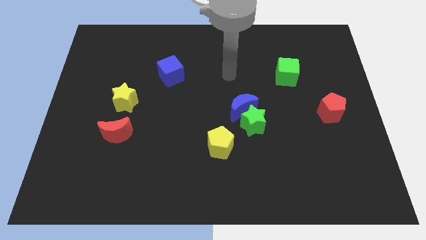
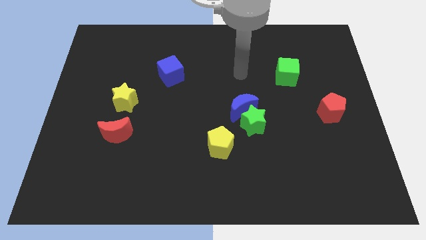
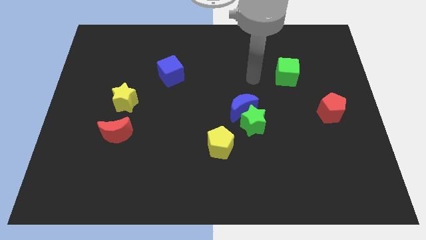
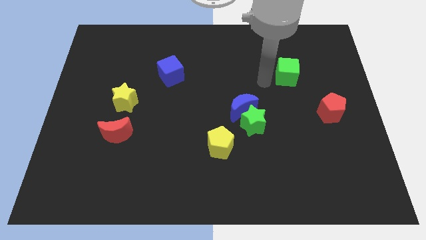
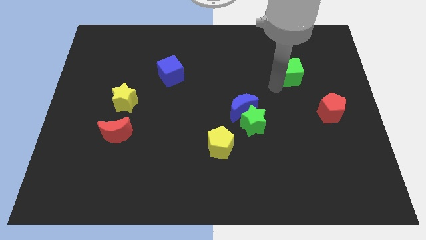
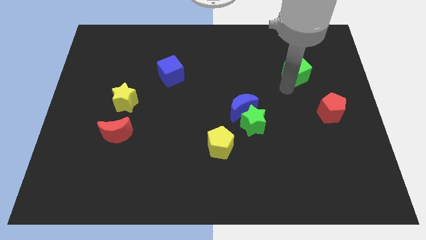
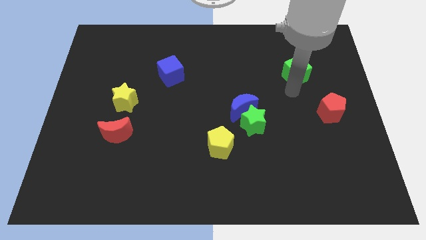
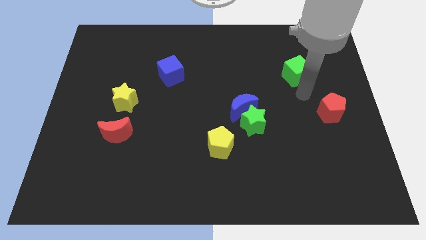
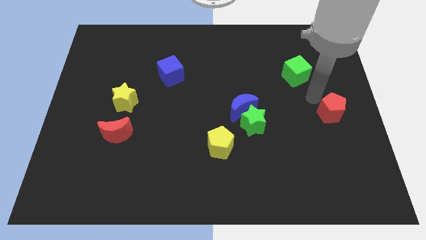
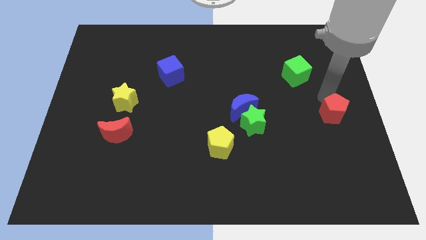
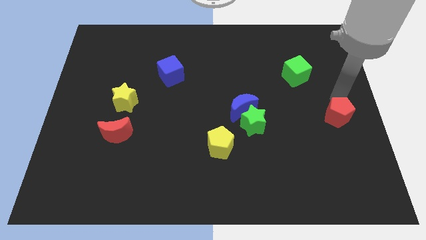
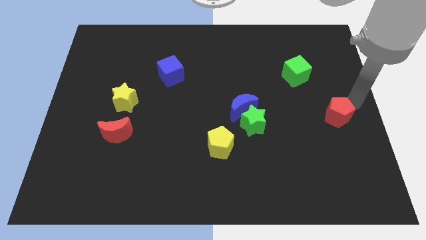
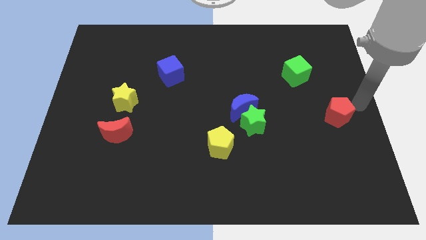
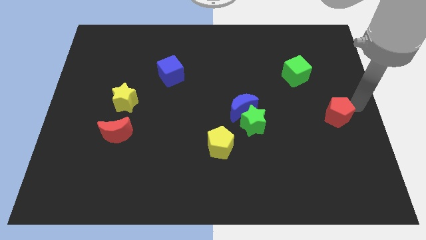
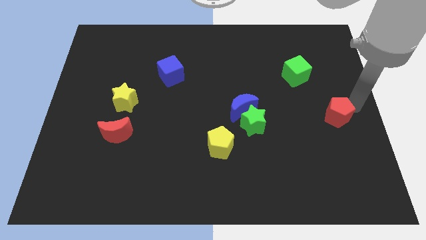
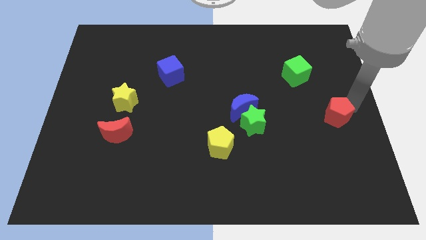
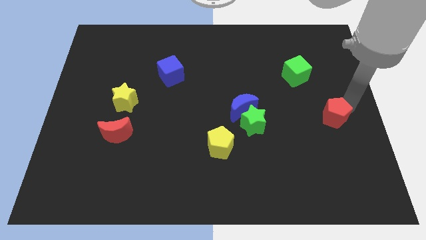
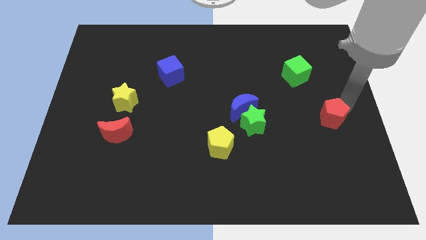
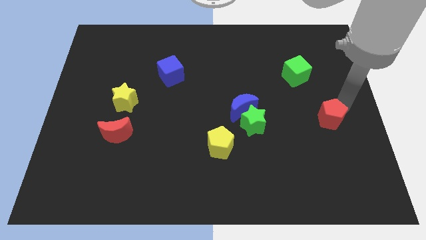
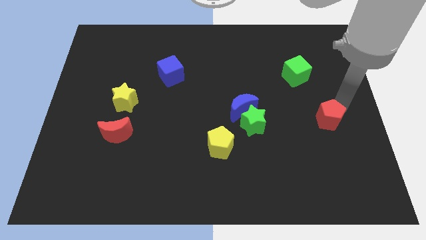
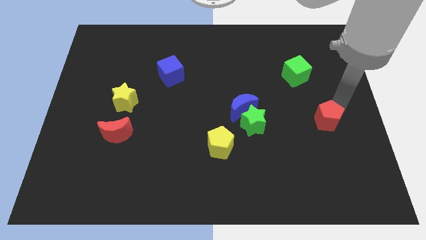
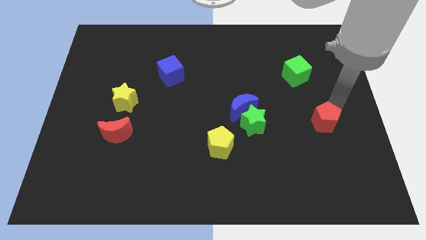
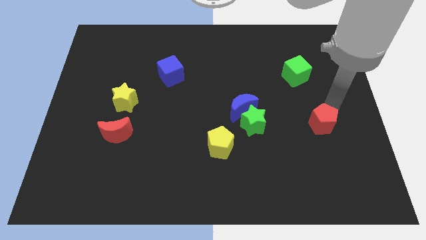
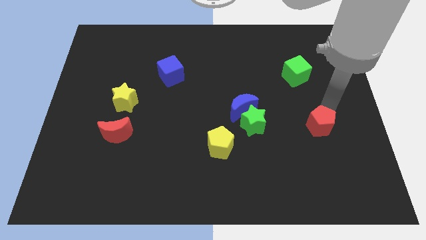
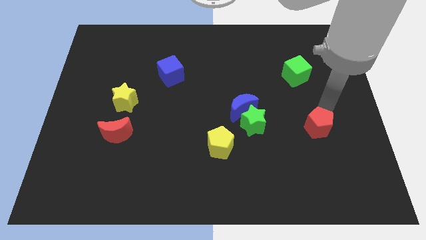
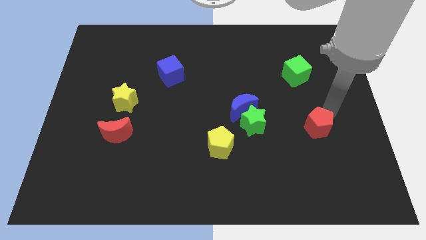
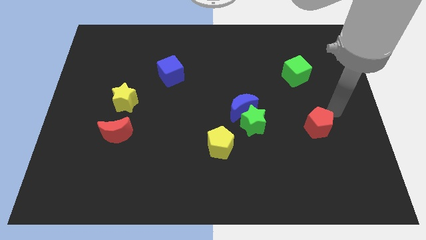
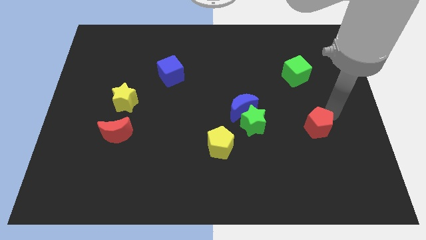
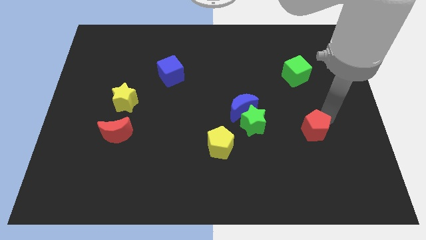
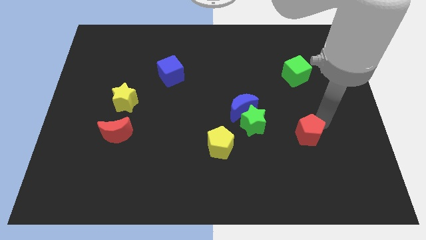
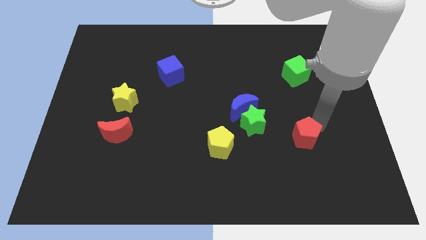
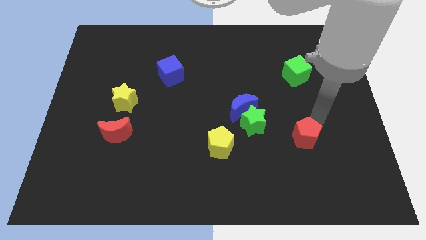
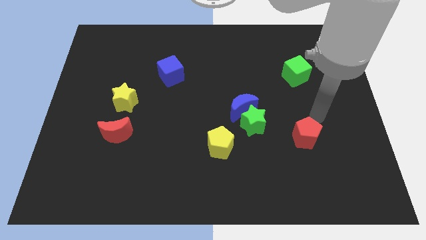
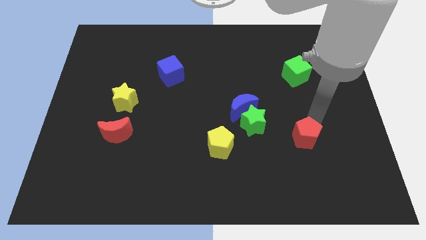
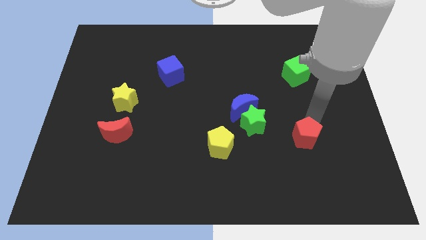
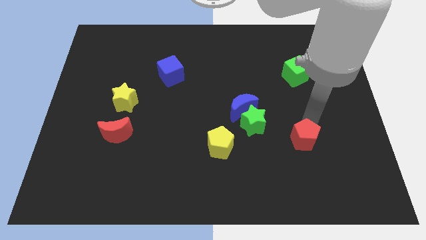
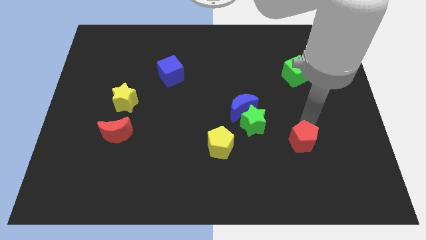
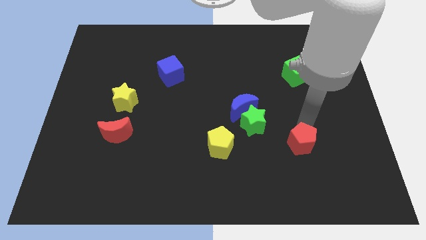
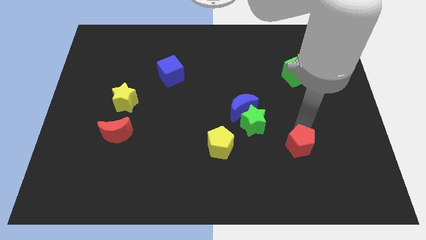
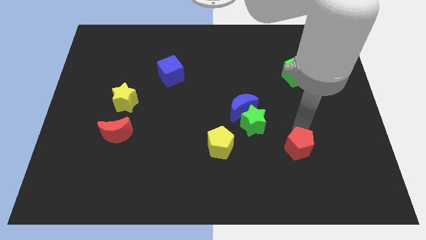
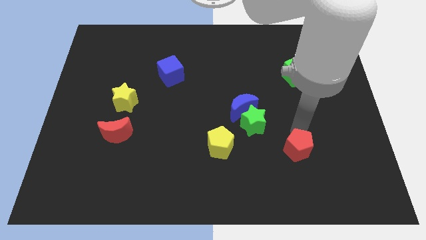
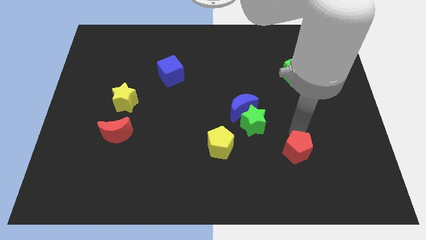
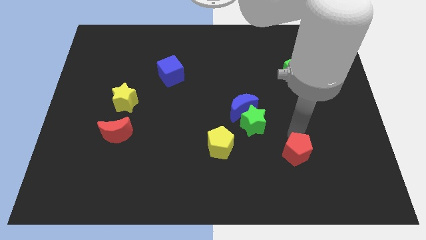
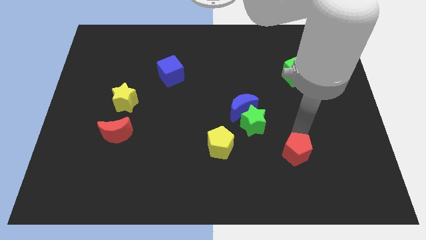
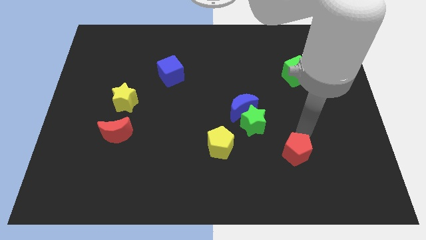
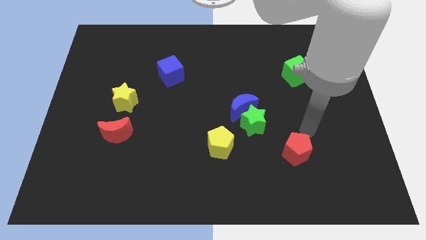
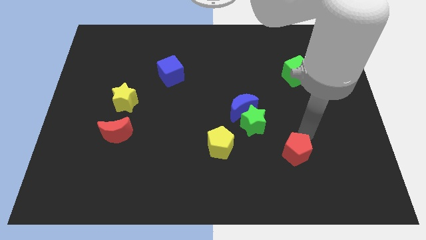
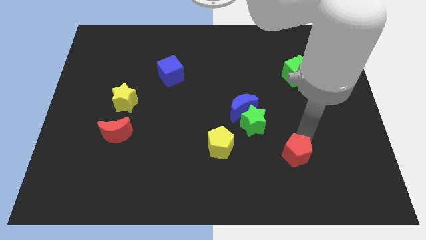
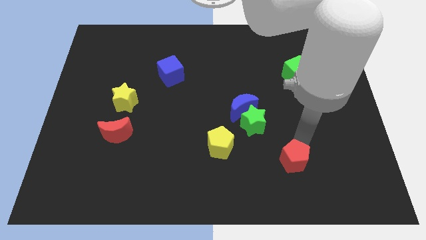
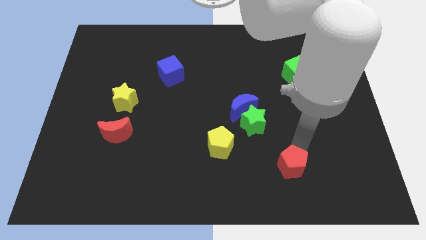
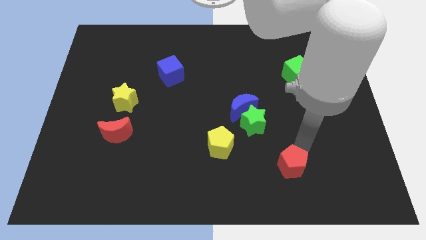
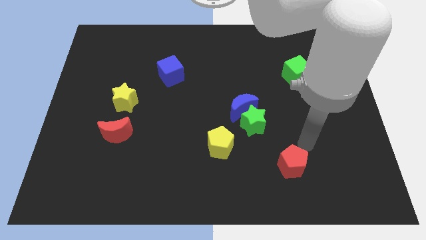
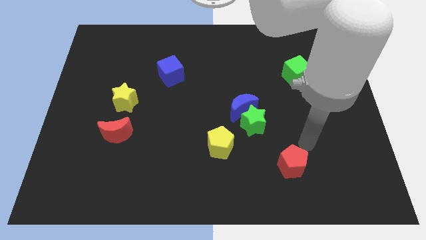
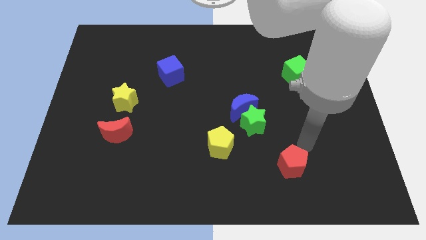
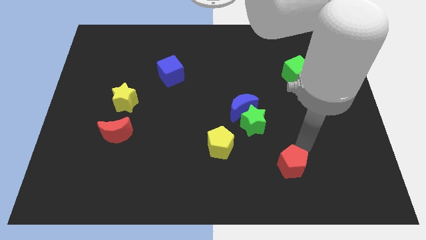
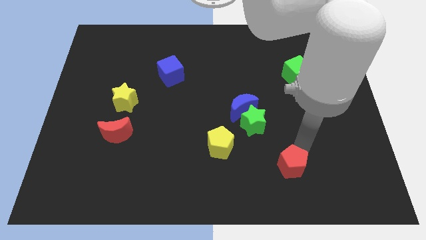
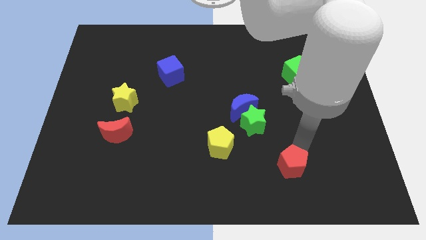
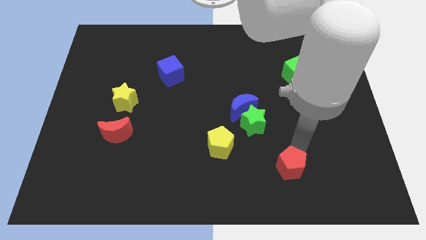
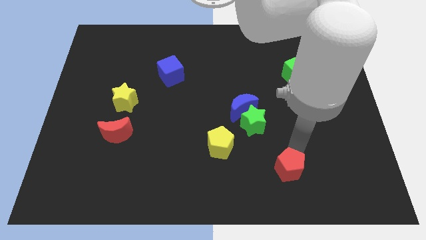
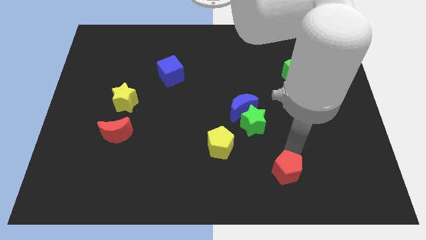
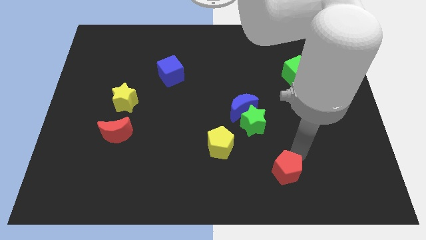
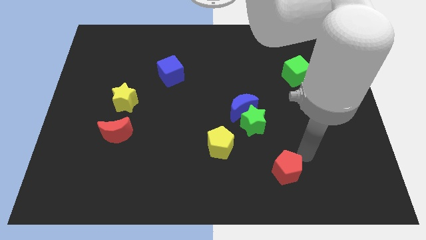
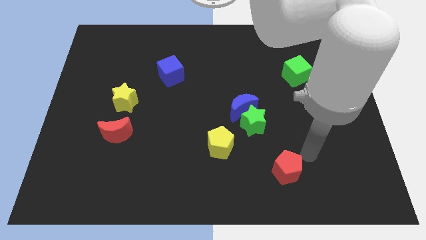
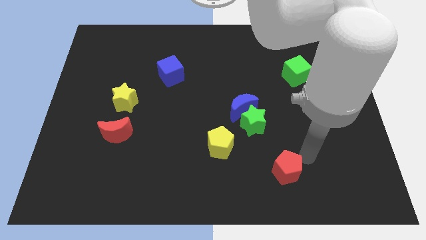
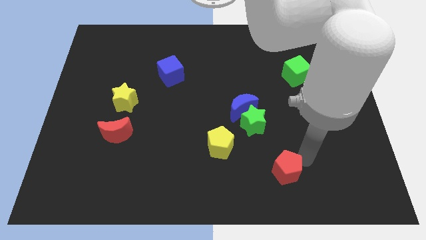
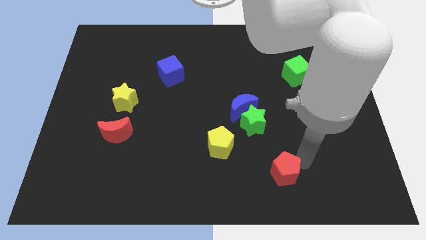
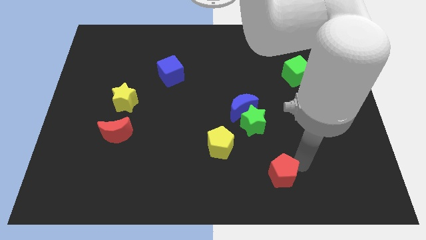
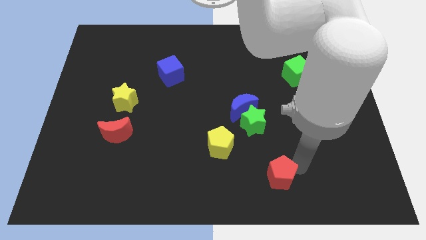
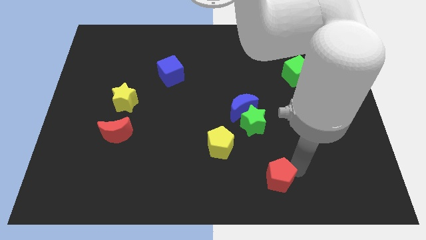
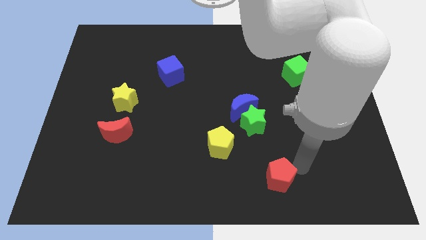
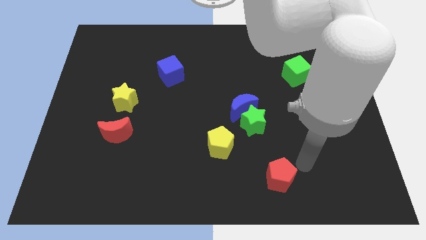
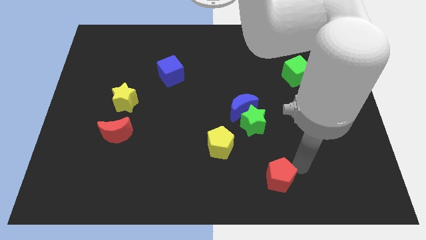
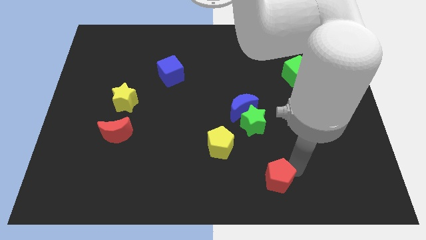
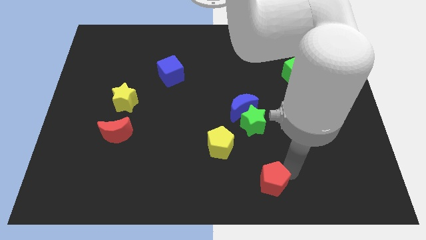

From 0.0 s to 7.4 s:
slide the red pentagon to the bottom side
